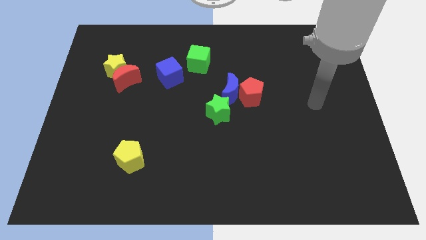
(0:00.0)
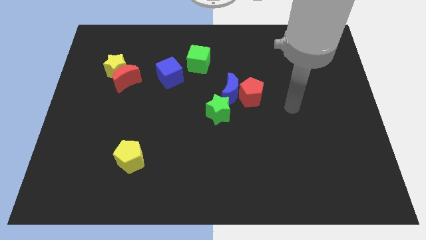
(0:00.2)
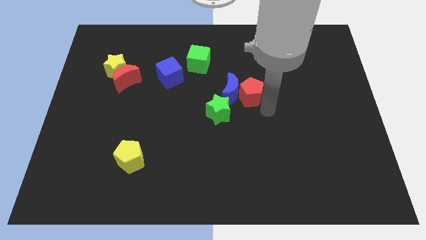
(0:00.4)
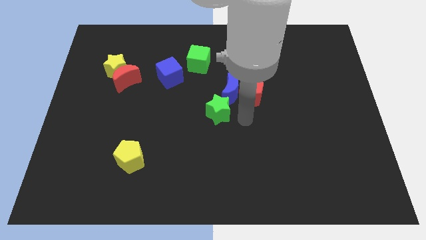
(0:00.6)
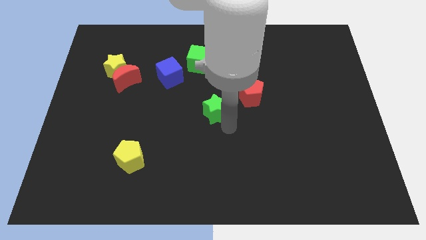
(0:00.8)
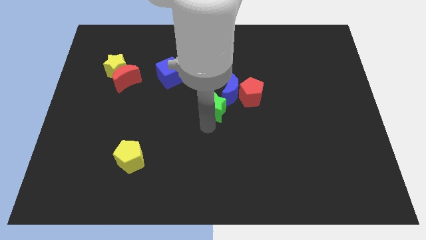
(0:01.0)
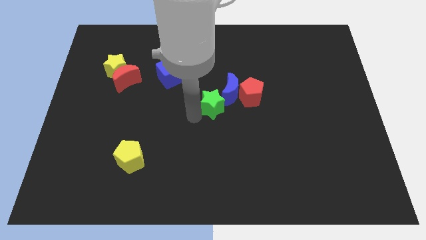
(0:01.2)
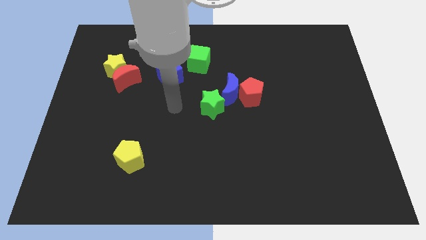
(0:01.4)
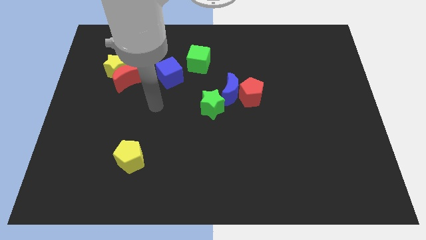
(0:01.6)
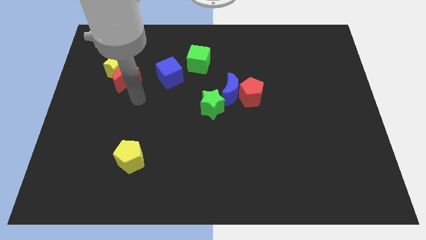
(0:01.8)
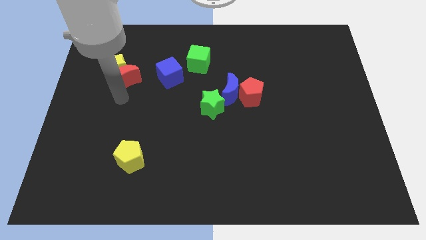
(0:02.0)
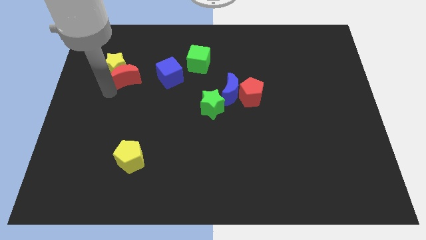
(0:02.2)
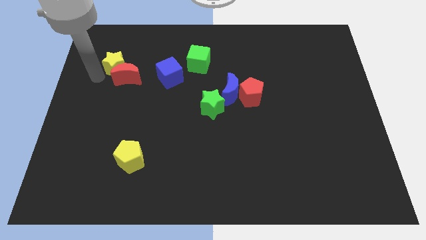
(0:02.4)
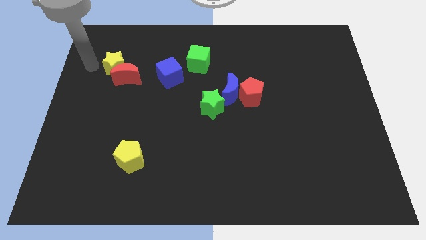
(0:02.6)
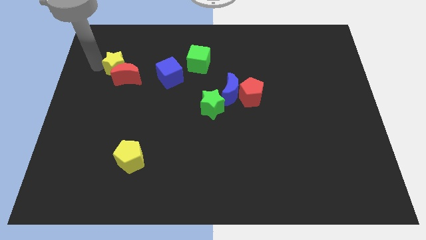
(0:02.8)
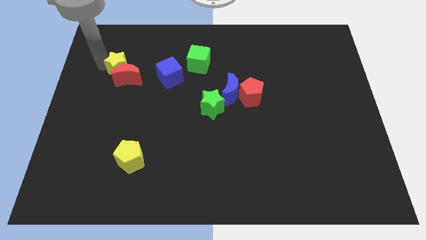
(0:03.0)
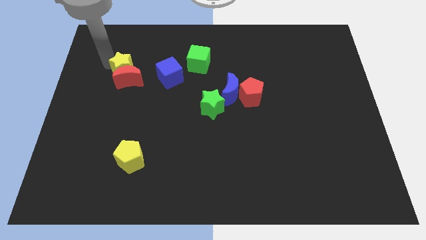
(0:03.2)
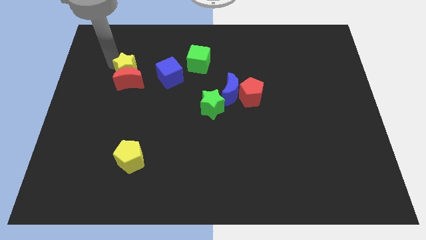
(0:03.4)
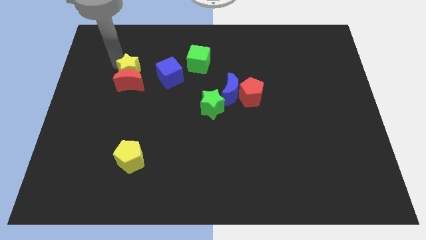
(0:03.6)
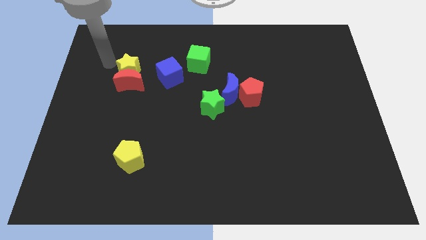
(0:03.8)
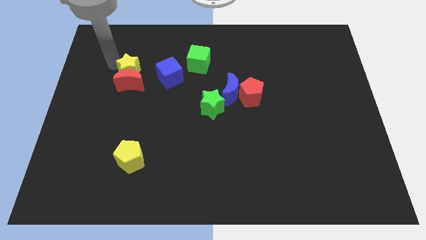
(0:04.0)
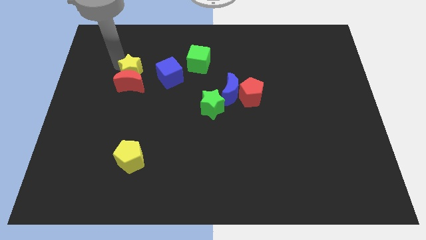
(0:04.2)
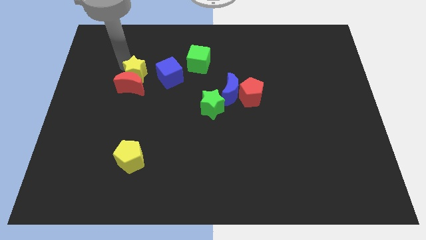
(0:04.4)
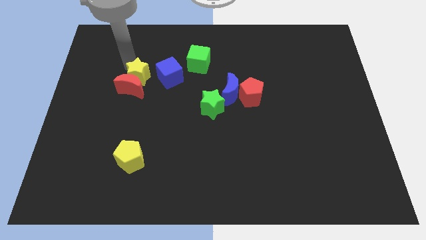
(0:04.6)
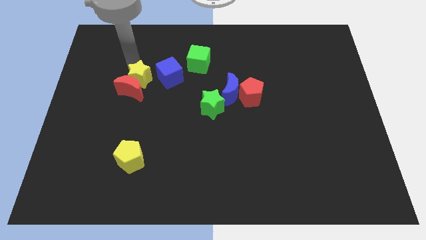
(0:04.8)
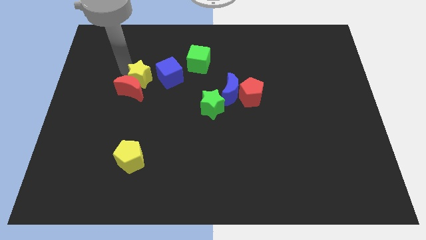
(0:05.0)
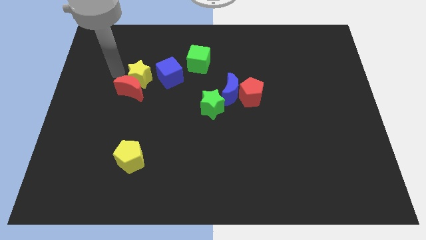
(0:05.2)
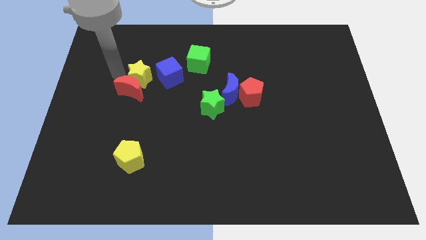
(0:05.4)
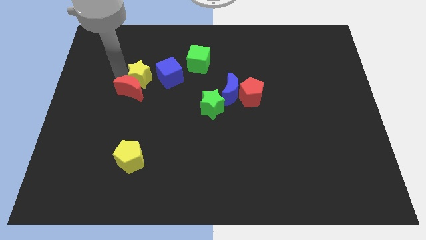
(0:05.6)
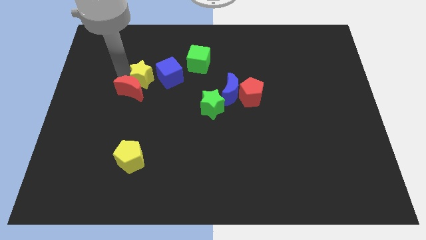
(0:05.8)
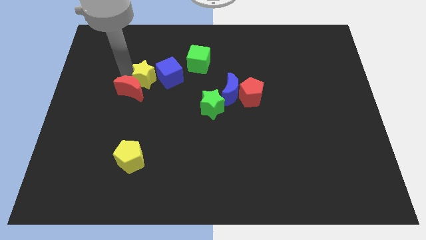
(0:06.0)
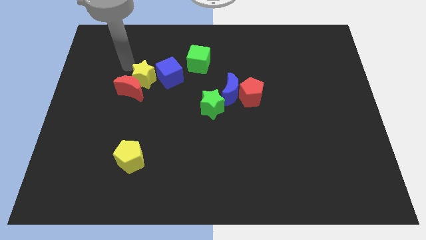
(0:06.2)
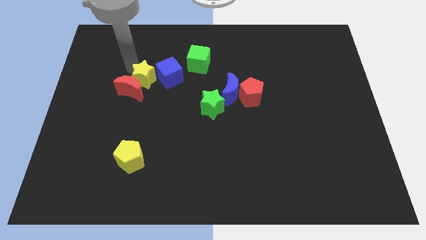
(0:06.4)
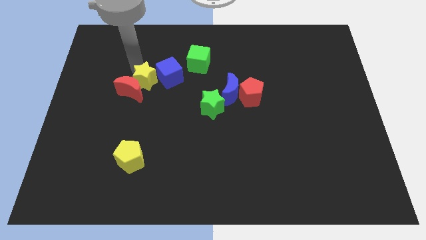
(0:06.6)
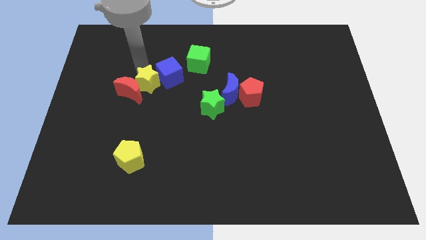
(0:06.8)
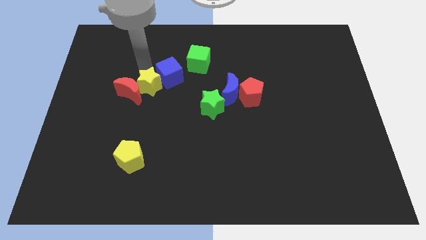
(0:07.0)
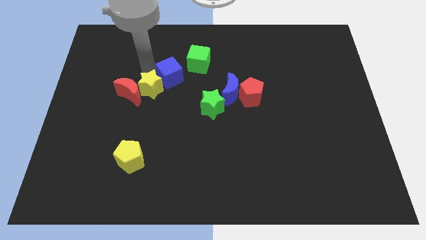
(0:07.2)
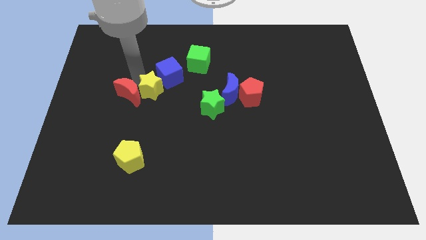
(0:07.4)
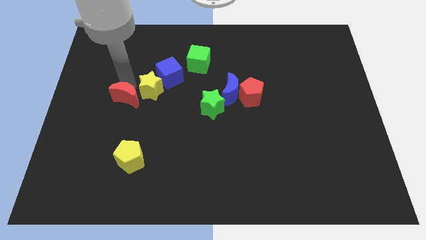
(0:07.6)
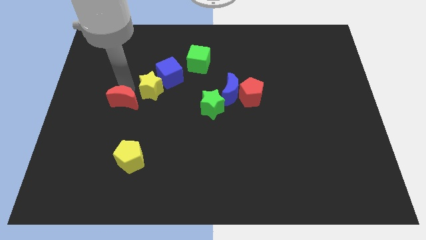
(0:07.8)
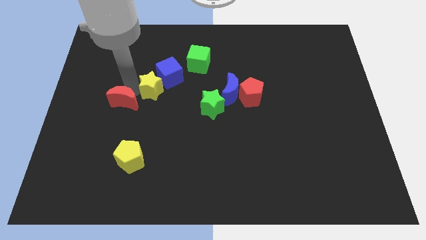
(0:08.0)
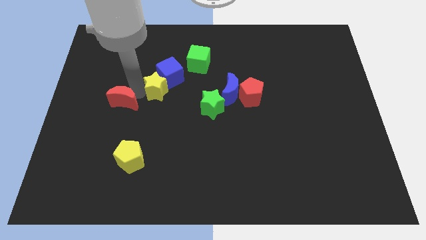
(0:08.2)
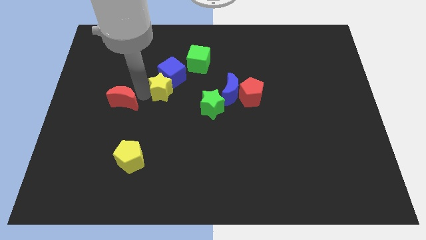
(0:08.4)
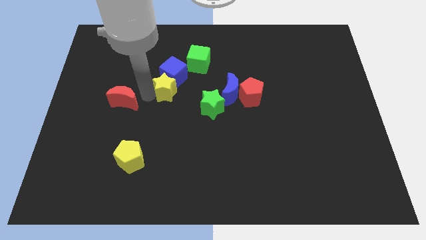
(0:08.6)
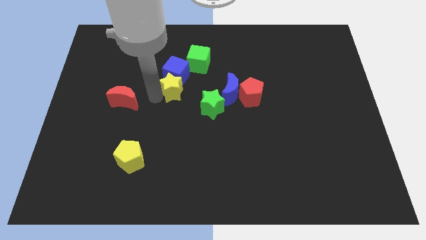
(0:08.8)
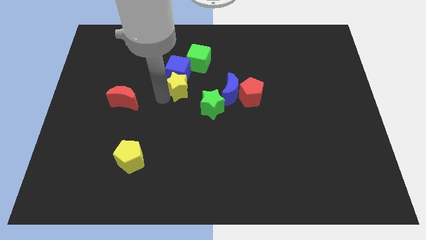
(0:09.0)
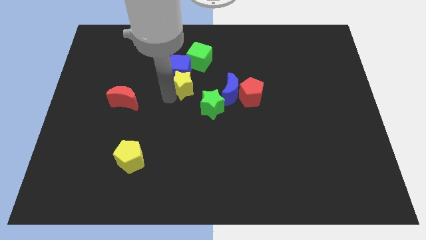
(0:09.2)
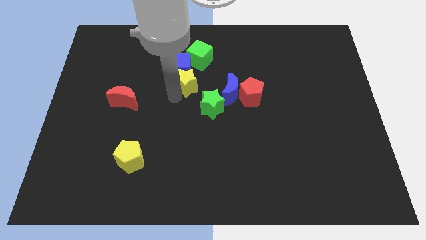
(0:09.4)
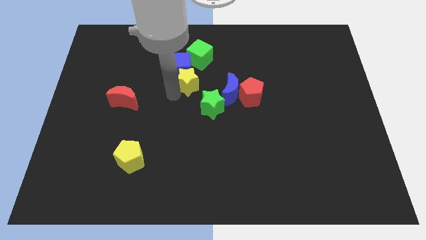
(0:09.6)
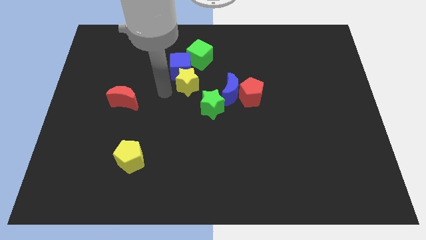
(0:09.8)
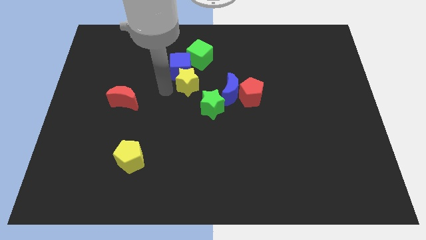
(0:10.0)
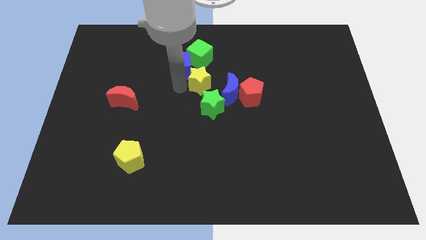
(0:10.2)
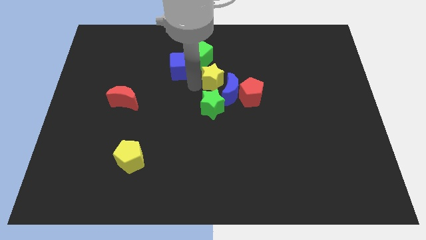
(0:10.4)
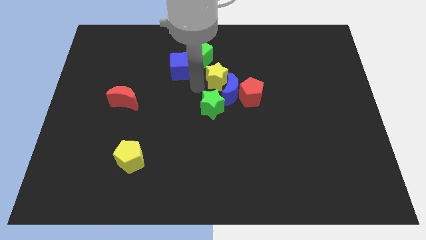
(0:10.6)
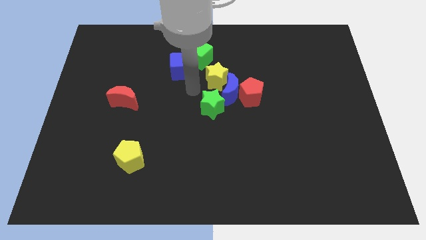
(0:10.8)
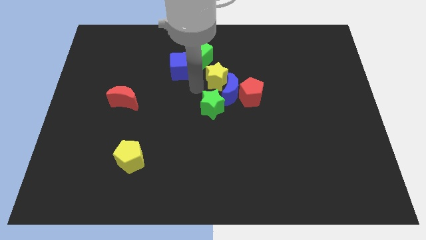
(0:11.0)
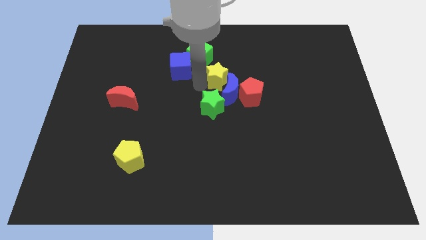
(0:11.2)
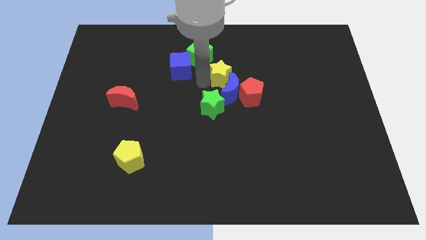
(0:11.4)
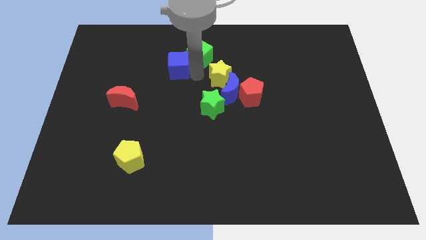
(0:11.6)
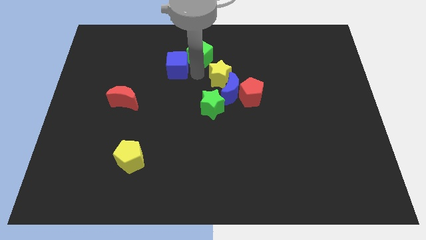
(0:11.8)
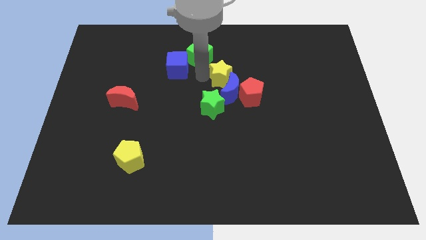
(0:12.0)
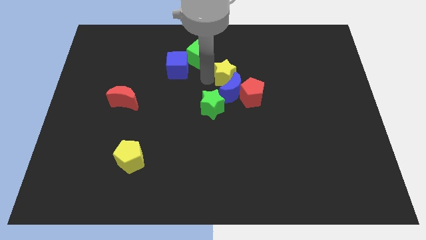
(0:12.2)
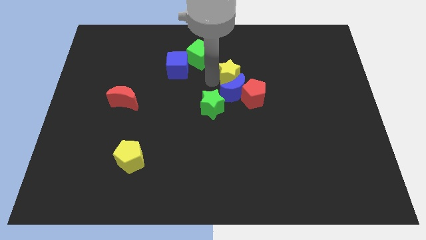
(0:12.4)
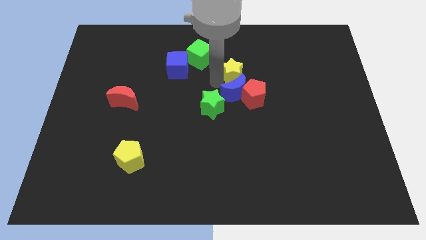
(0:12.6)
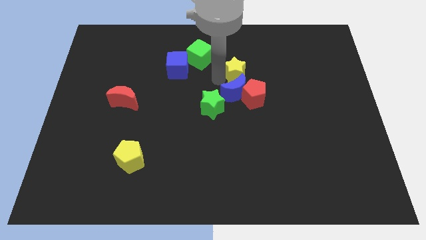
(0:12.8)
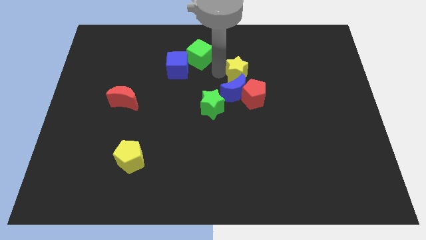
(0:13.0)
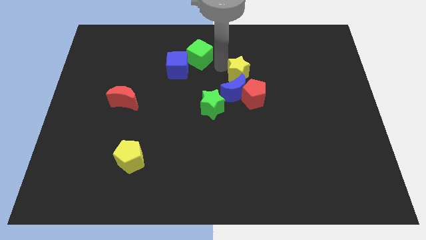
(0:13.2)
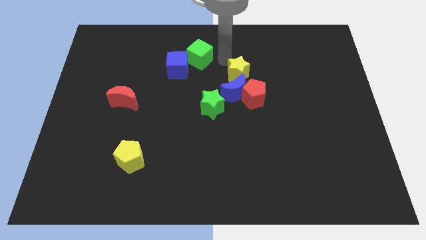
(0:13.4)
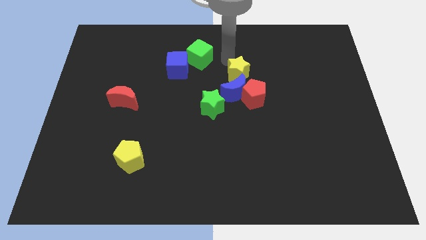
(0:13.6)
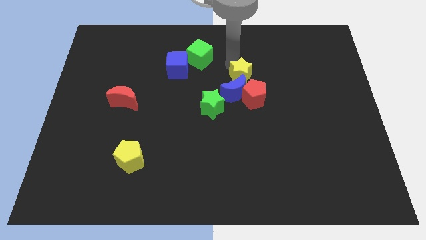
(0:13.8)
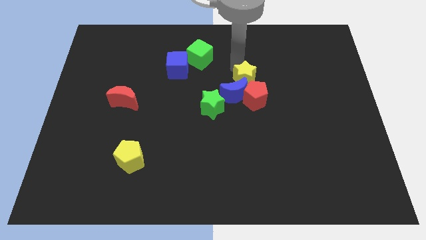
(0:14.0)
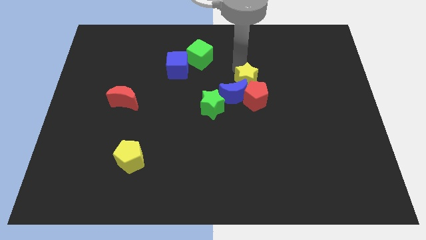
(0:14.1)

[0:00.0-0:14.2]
push the yellow star close to the red pentagon
